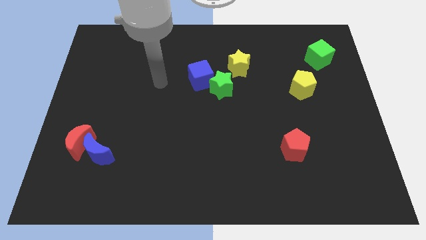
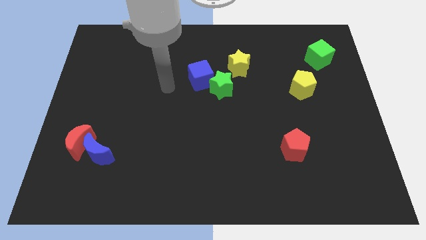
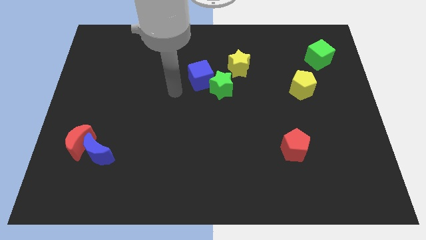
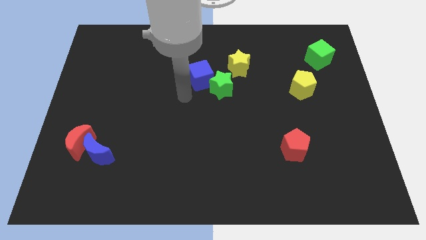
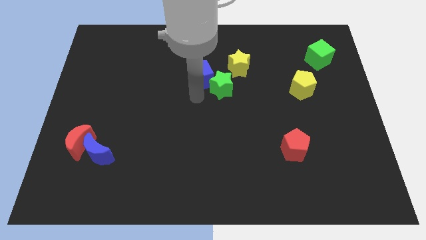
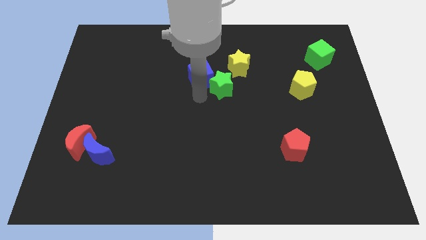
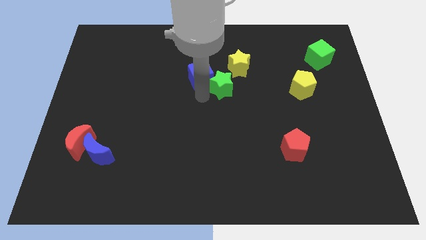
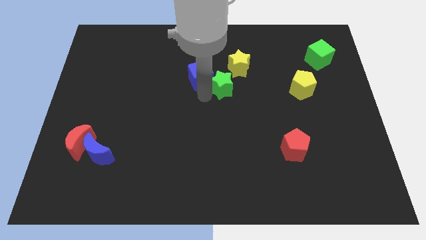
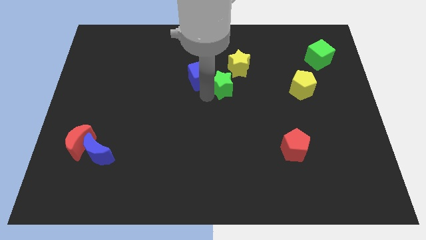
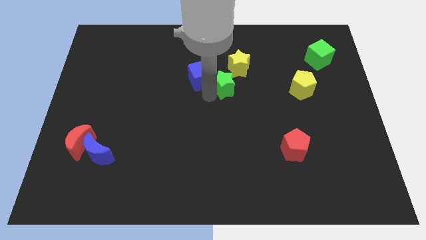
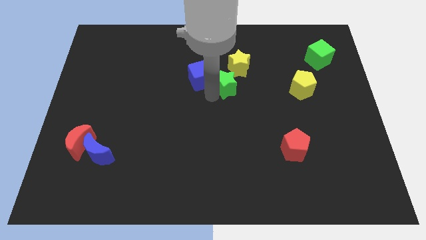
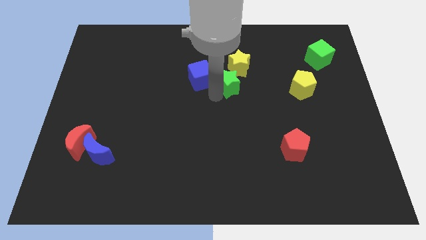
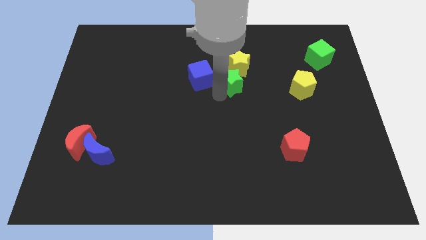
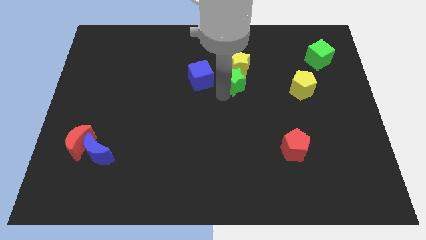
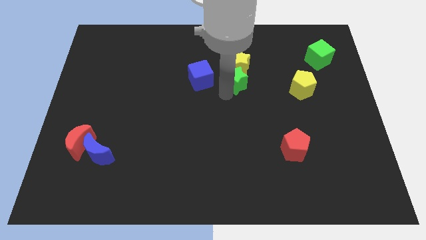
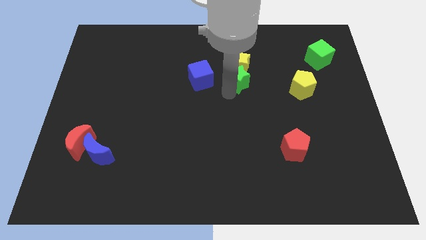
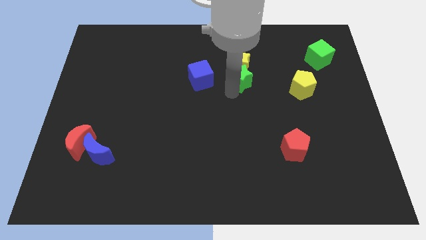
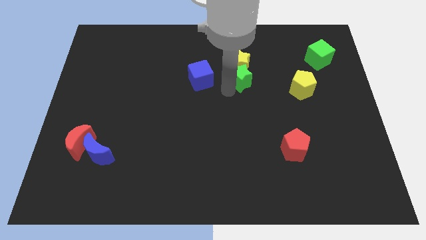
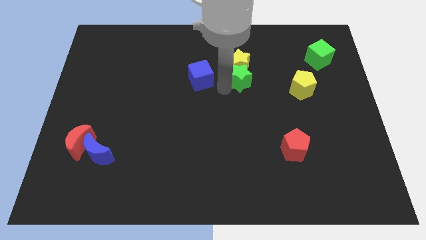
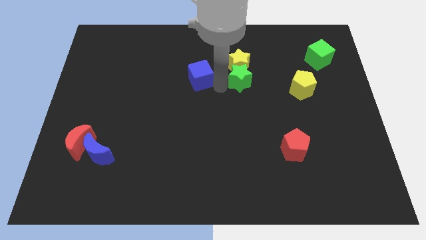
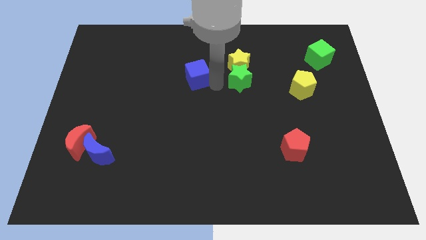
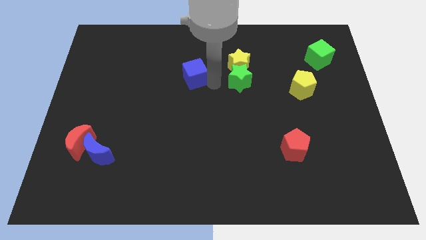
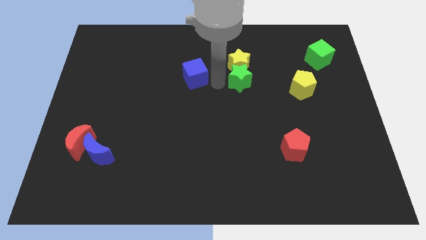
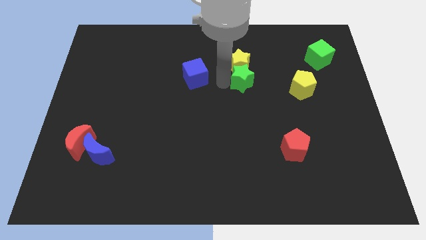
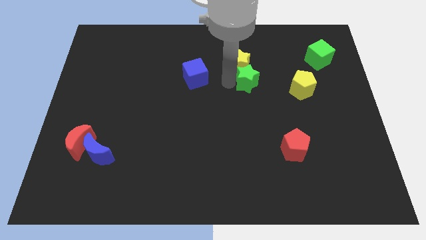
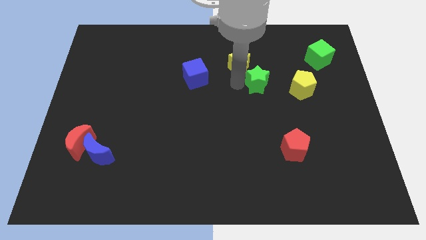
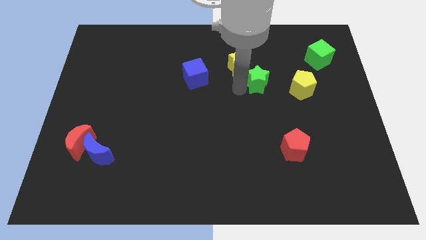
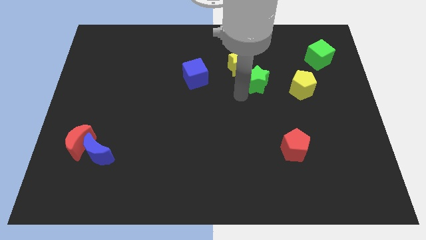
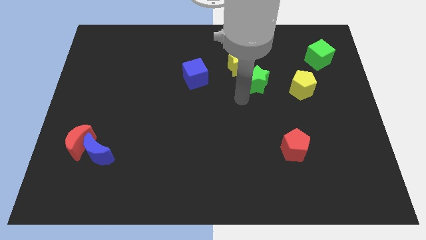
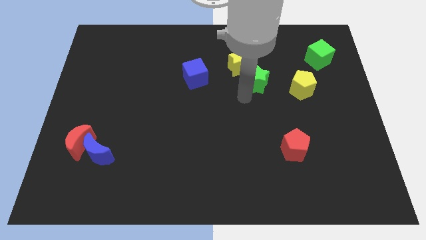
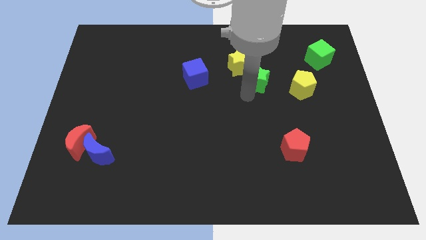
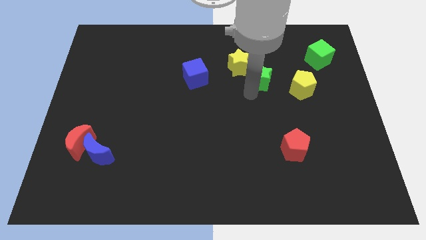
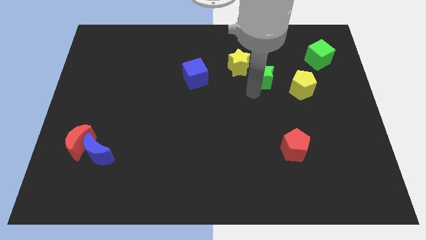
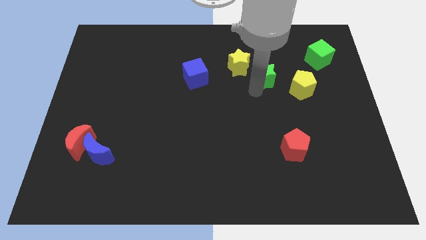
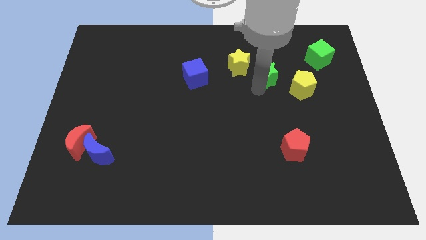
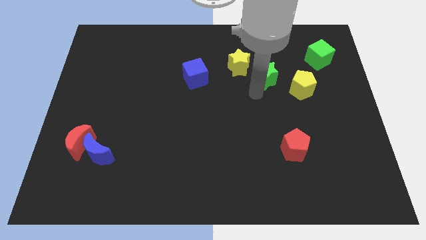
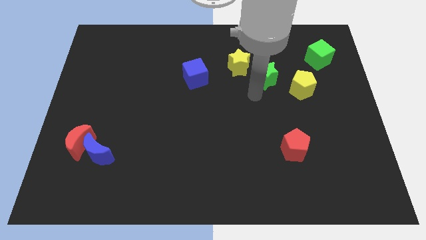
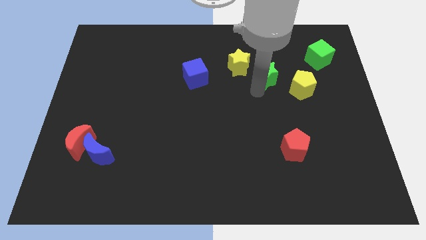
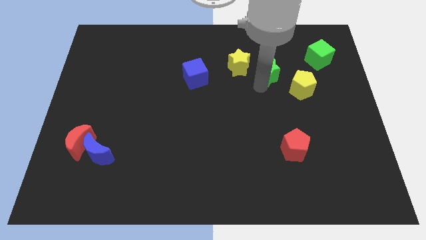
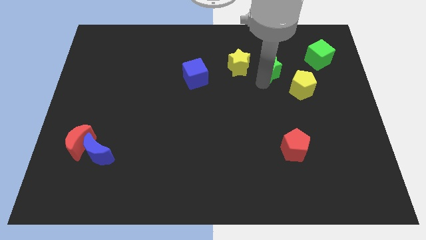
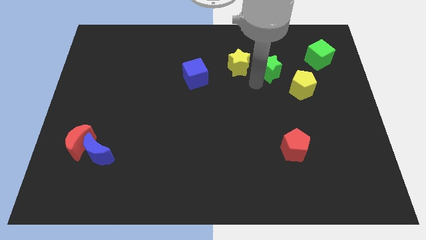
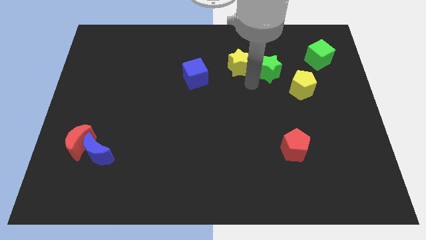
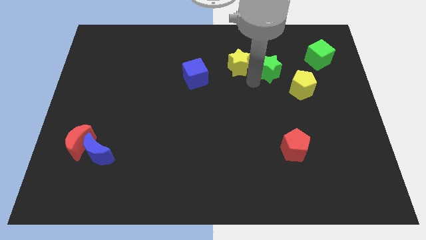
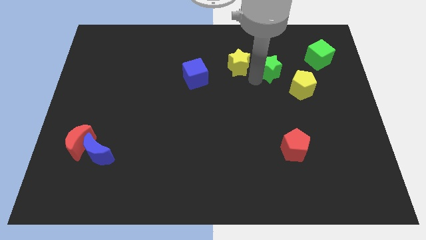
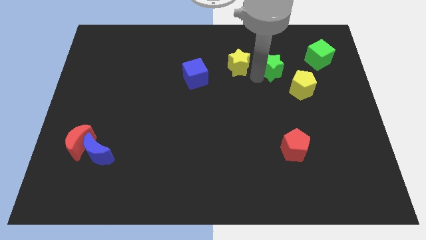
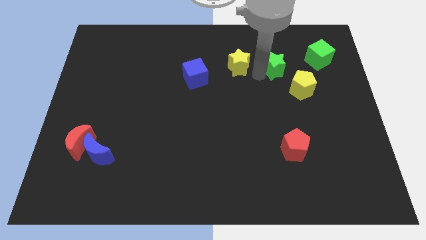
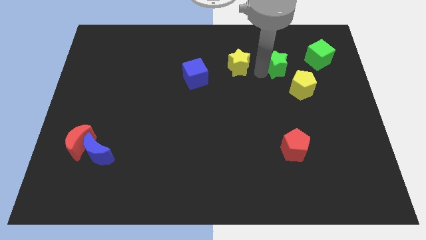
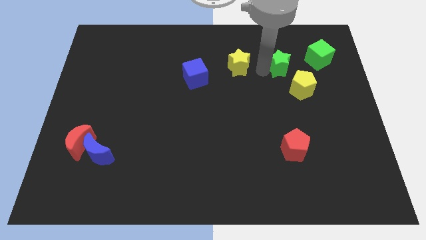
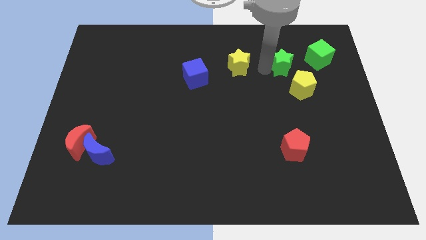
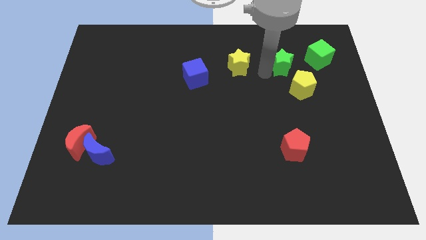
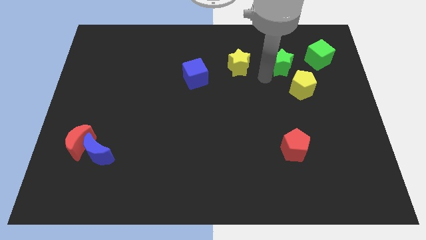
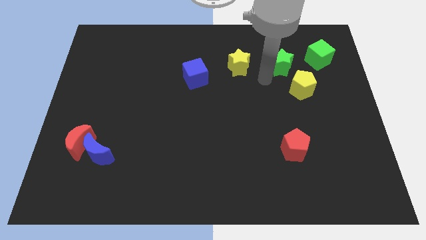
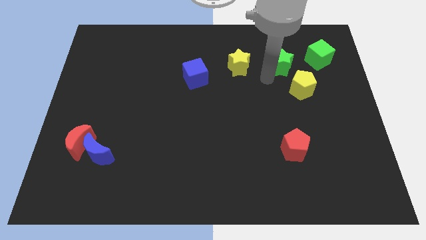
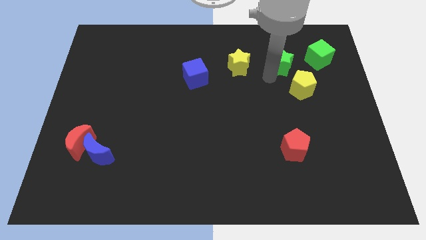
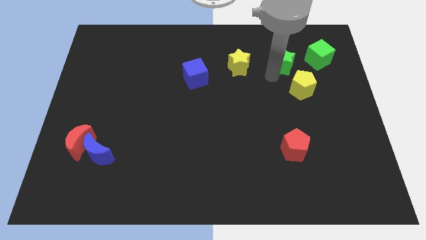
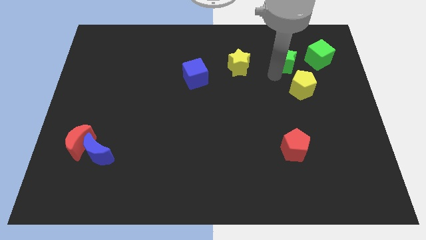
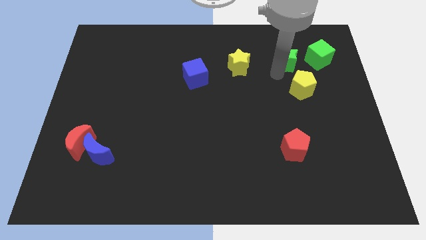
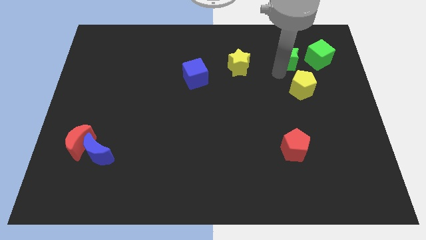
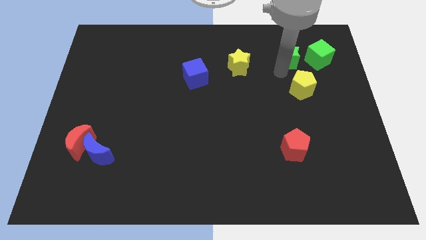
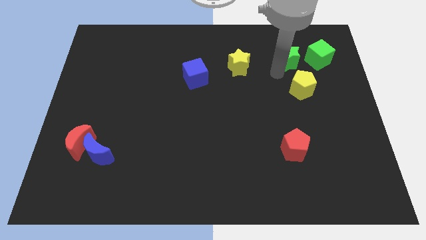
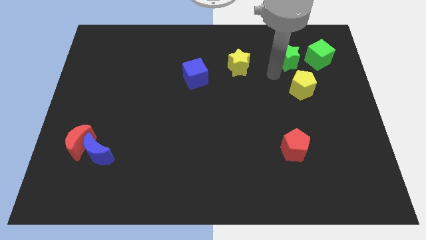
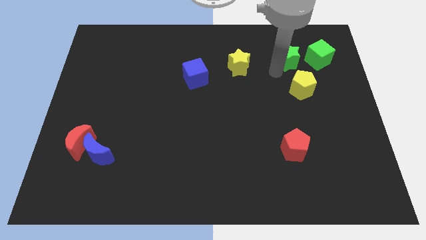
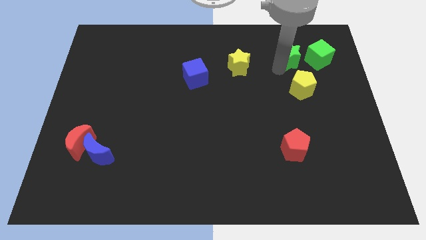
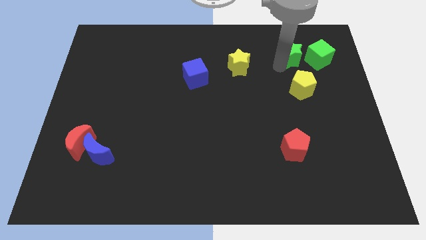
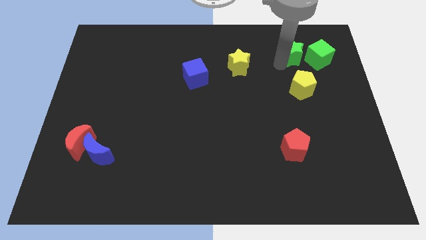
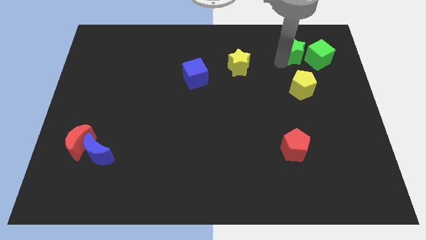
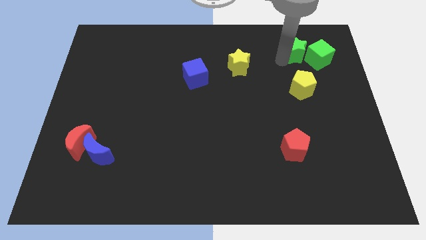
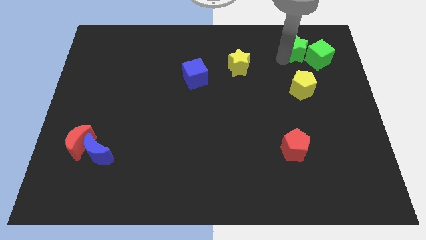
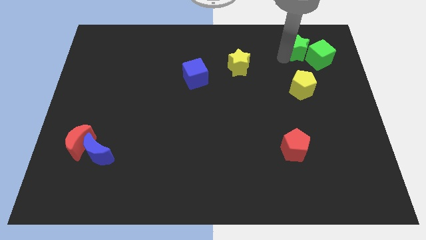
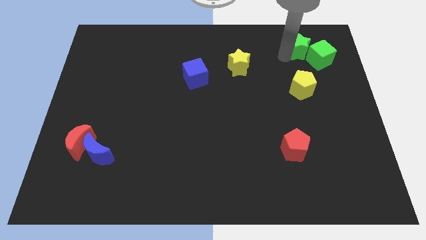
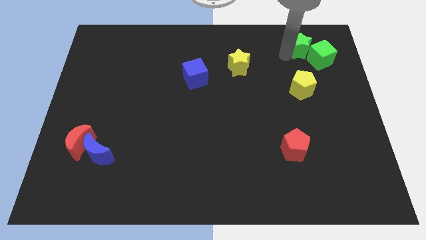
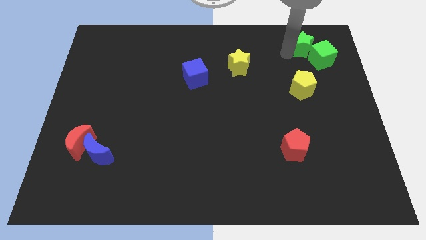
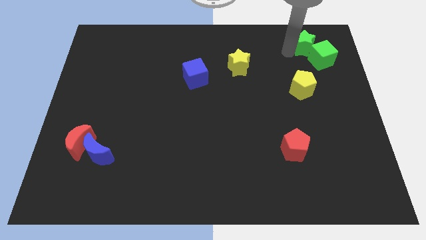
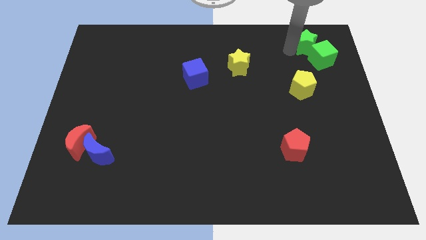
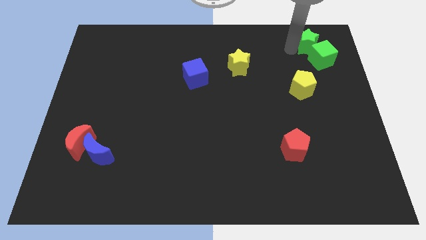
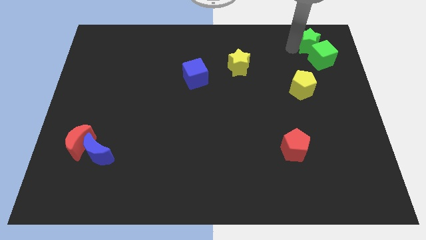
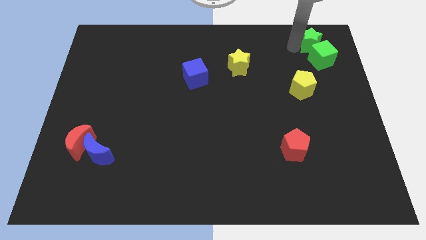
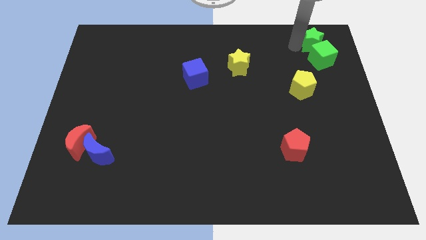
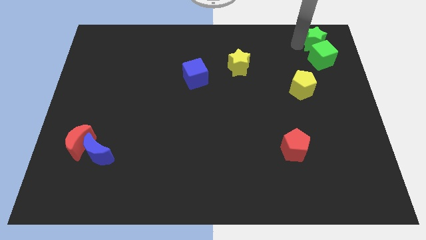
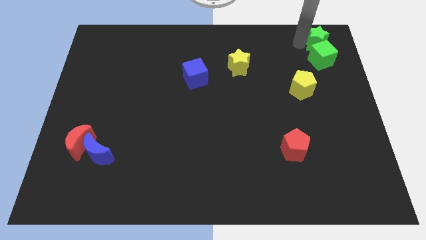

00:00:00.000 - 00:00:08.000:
push the green star to the top right corner
